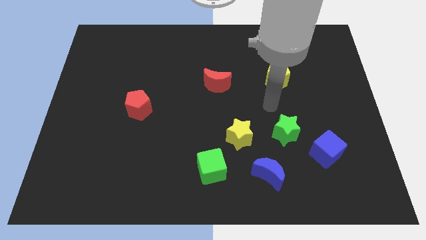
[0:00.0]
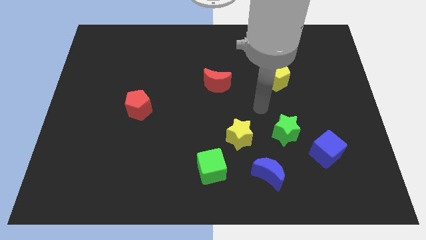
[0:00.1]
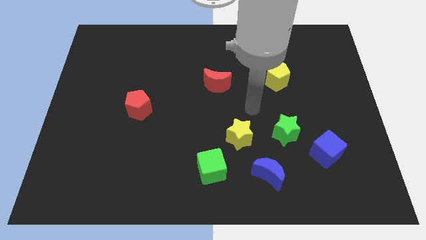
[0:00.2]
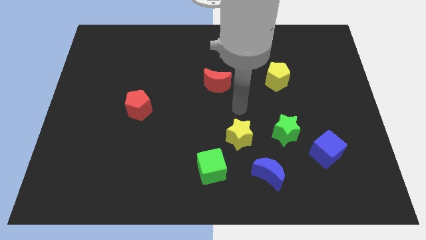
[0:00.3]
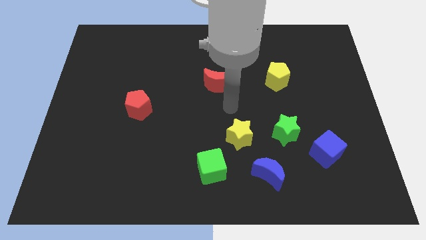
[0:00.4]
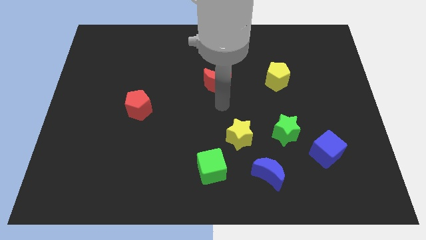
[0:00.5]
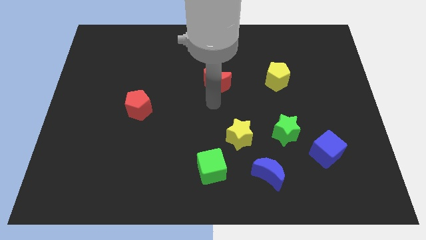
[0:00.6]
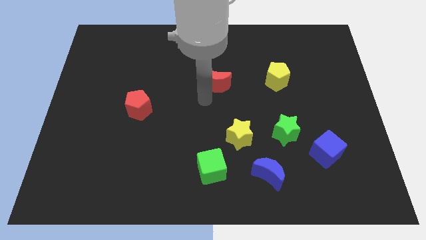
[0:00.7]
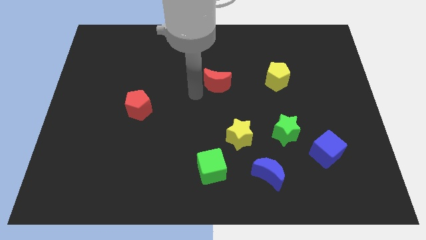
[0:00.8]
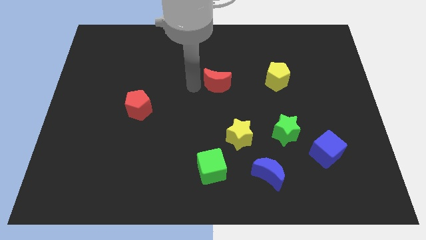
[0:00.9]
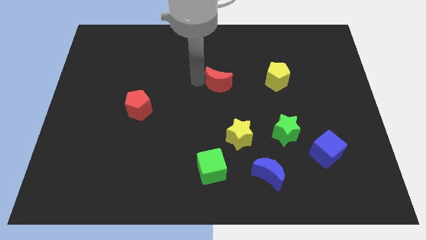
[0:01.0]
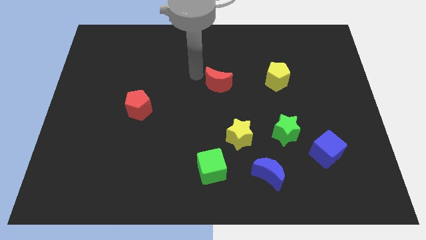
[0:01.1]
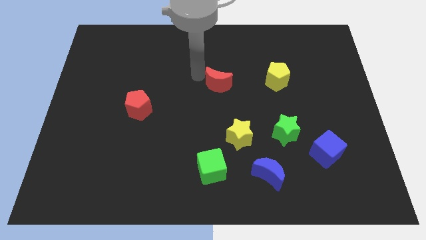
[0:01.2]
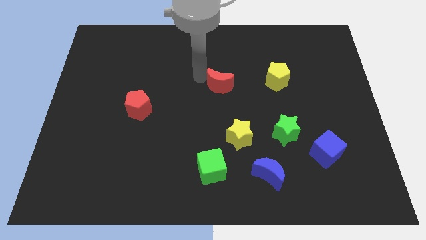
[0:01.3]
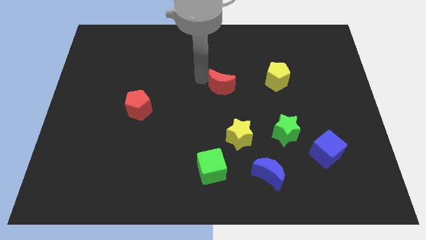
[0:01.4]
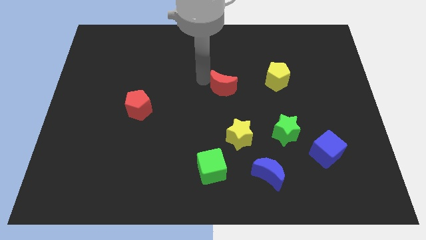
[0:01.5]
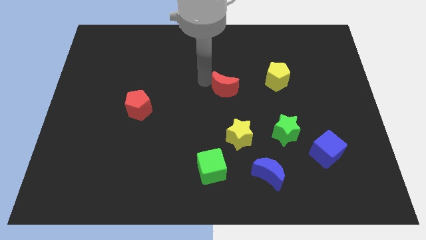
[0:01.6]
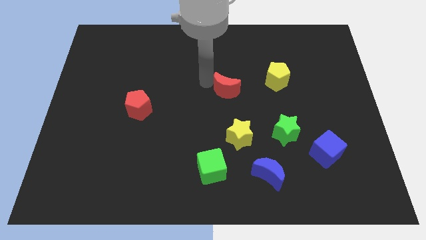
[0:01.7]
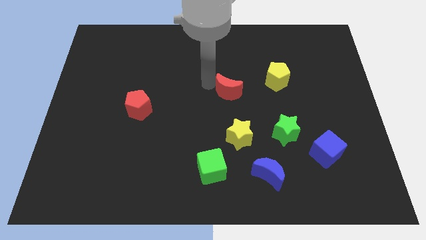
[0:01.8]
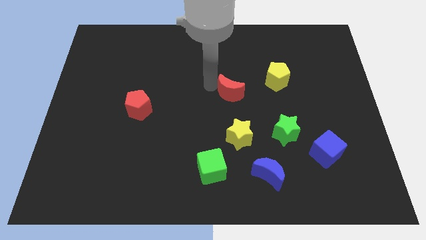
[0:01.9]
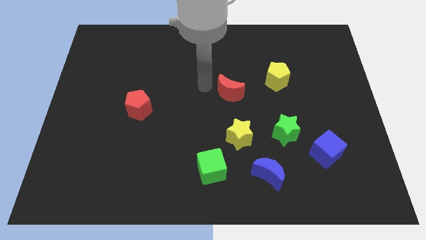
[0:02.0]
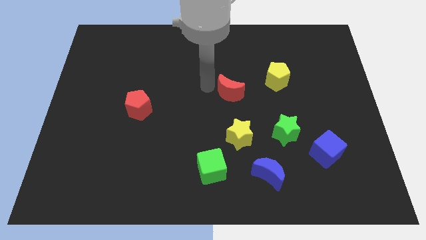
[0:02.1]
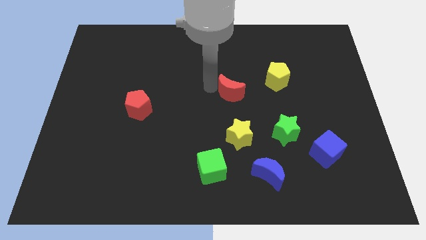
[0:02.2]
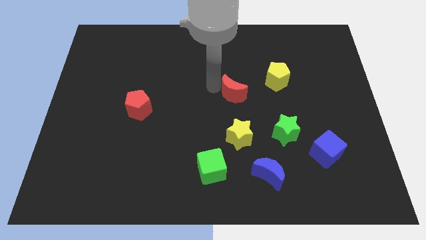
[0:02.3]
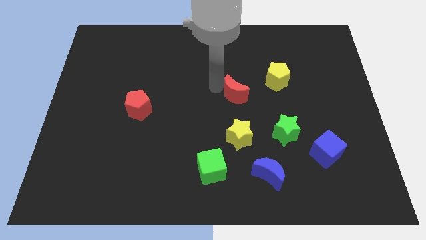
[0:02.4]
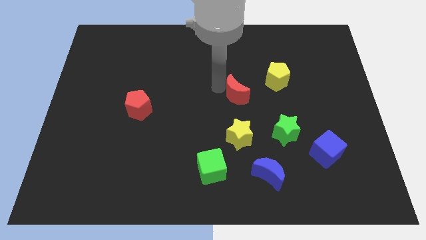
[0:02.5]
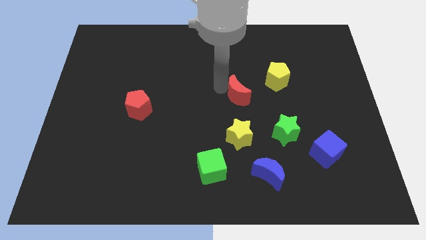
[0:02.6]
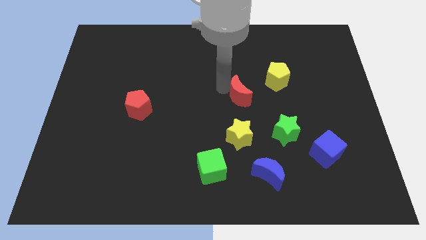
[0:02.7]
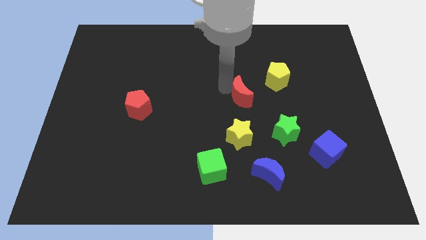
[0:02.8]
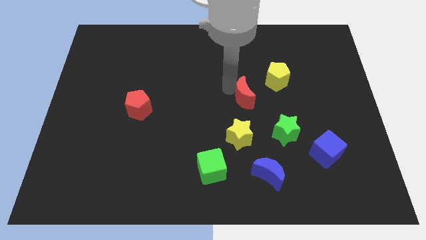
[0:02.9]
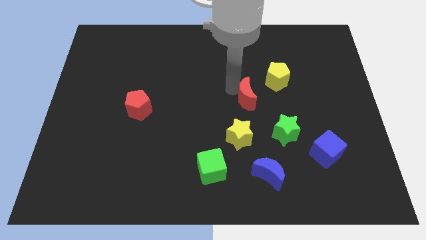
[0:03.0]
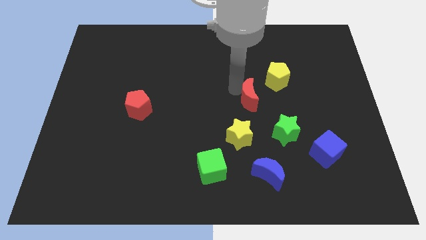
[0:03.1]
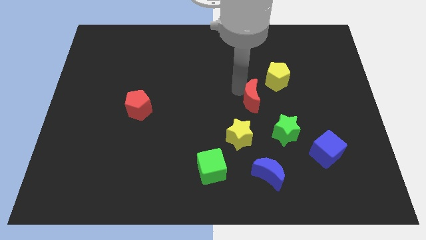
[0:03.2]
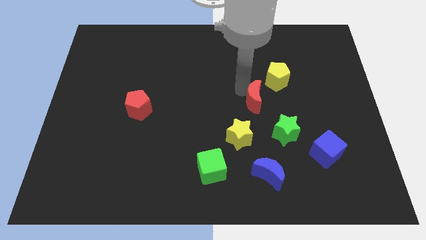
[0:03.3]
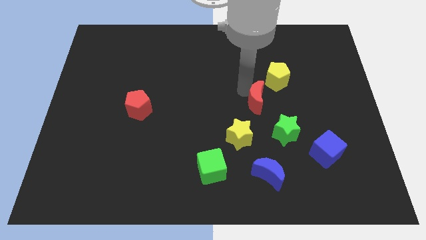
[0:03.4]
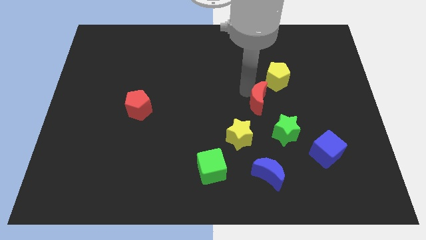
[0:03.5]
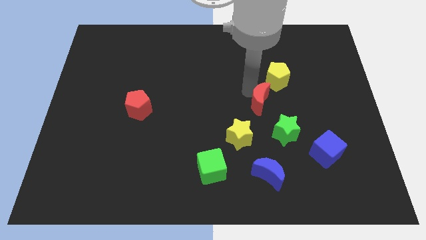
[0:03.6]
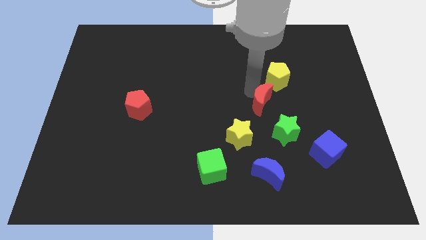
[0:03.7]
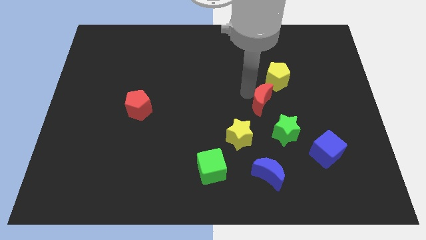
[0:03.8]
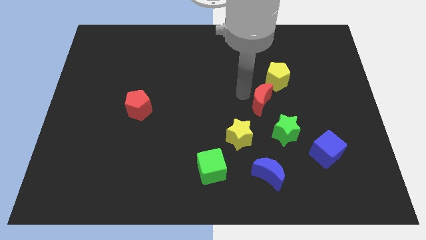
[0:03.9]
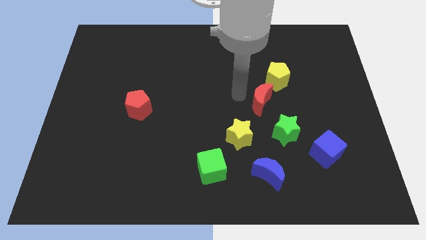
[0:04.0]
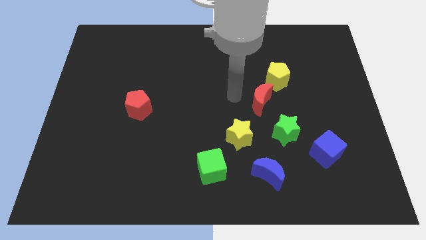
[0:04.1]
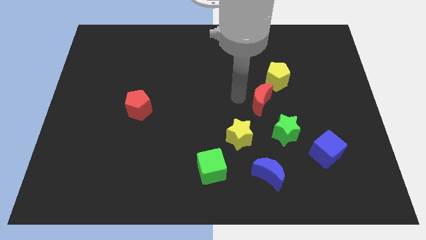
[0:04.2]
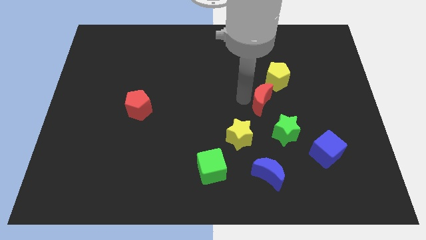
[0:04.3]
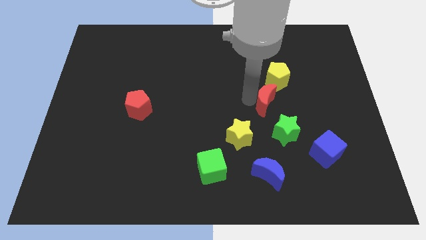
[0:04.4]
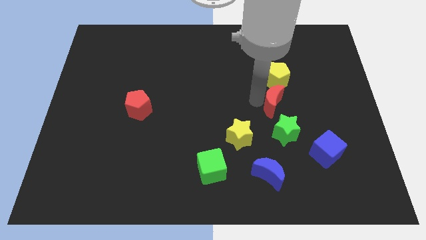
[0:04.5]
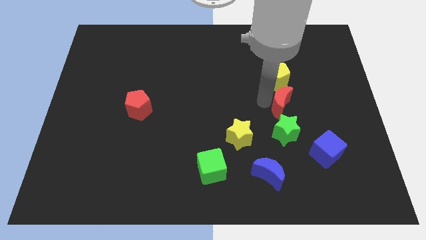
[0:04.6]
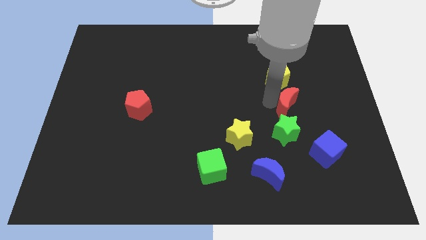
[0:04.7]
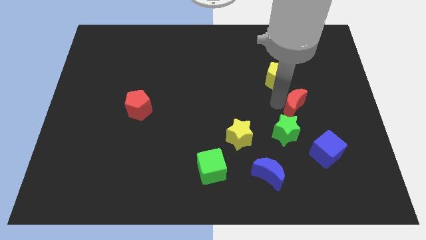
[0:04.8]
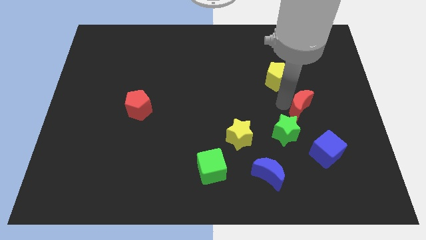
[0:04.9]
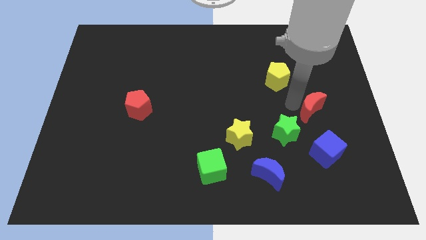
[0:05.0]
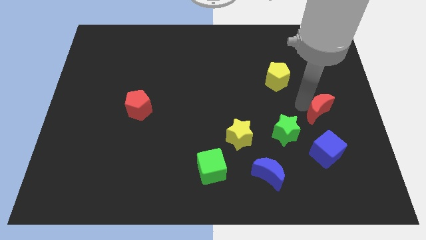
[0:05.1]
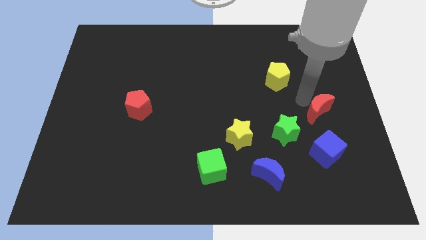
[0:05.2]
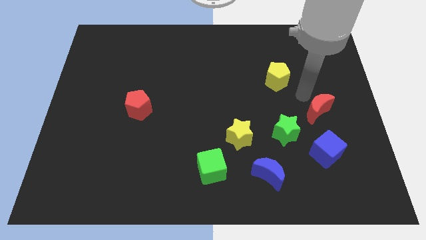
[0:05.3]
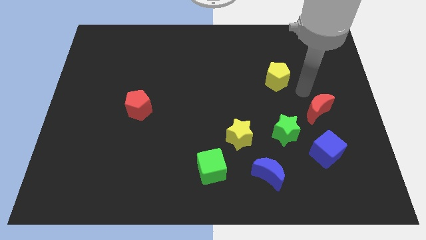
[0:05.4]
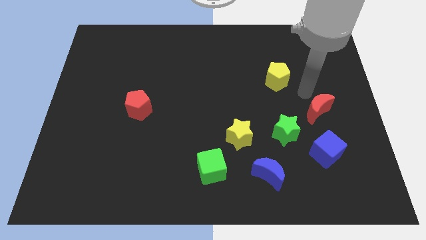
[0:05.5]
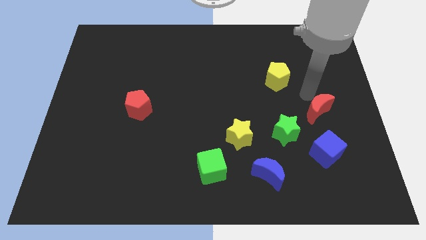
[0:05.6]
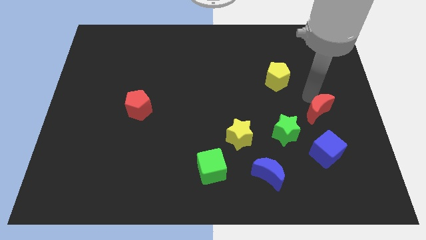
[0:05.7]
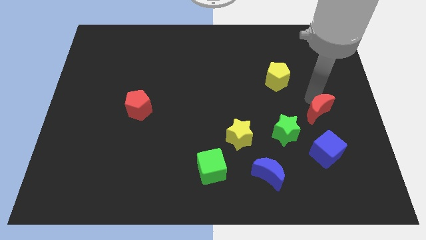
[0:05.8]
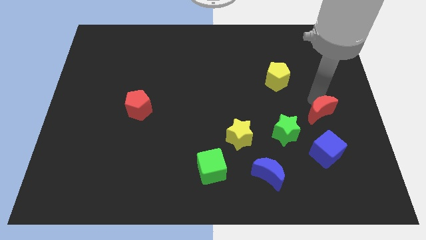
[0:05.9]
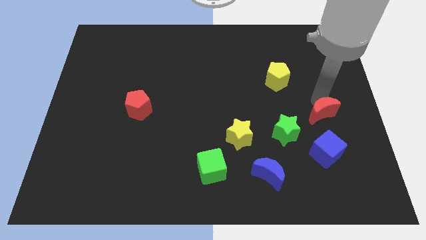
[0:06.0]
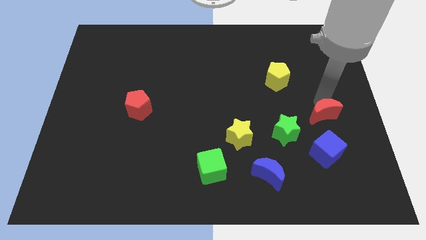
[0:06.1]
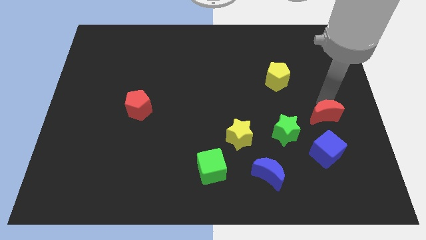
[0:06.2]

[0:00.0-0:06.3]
put the red moon to the right side of the green star
